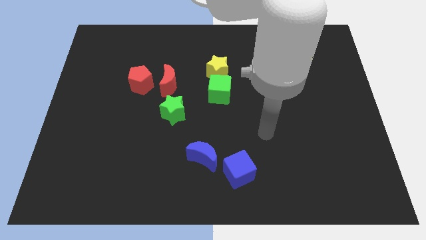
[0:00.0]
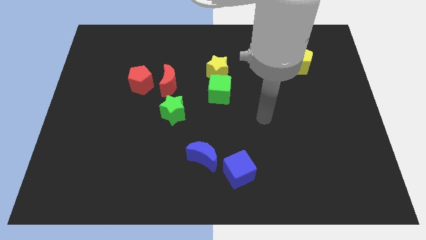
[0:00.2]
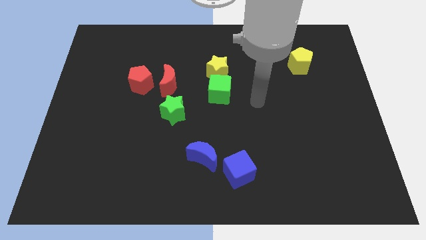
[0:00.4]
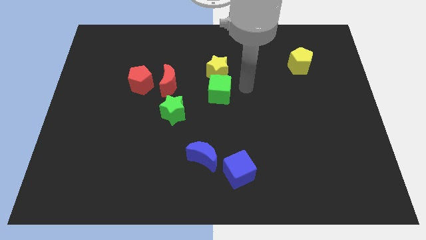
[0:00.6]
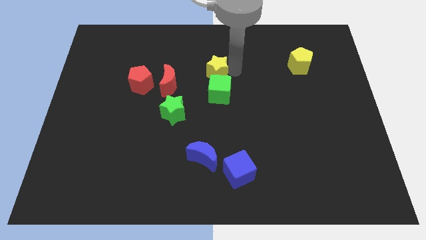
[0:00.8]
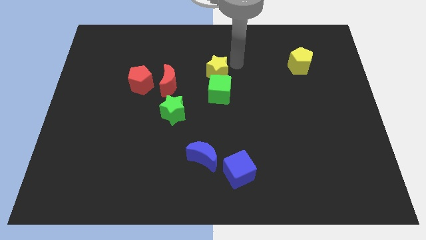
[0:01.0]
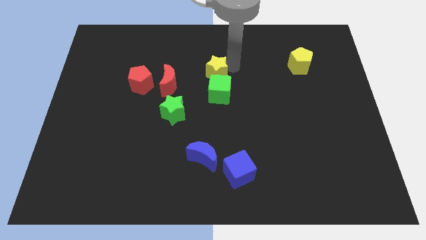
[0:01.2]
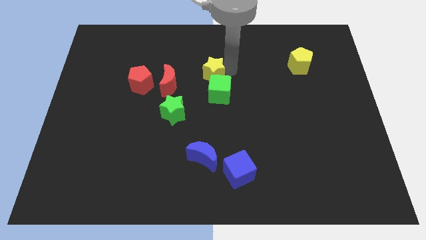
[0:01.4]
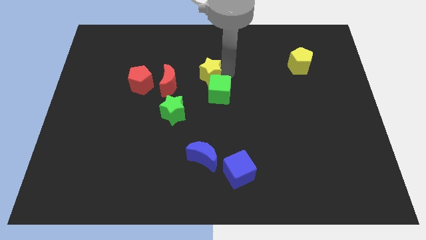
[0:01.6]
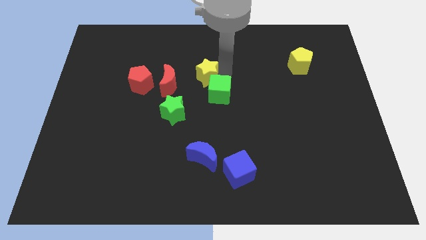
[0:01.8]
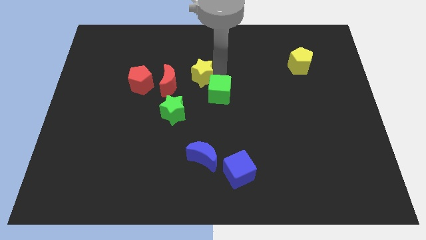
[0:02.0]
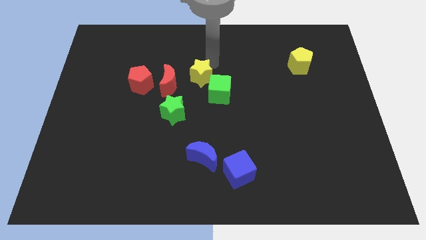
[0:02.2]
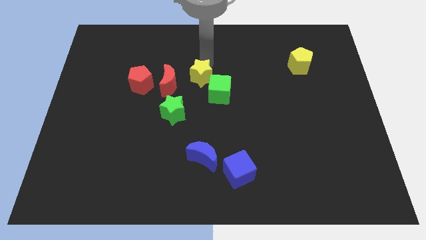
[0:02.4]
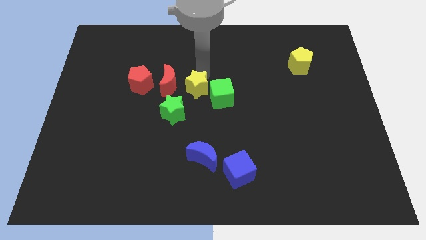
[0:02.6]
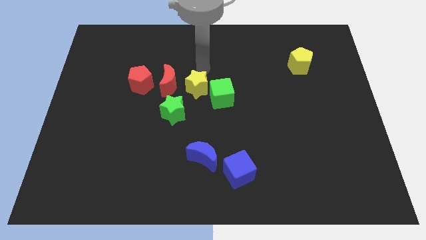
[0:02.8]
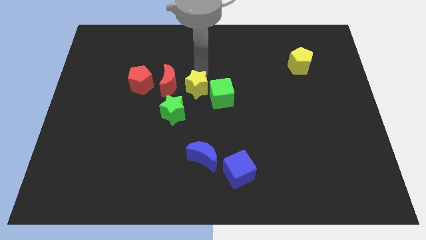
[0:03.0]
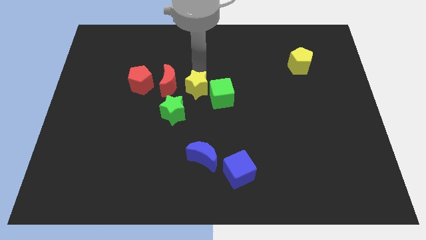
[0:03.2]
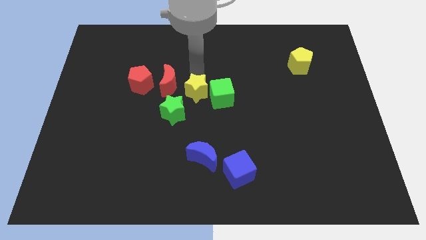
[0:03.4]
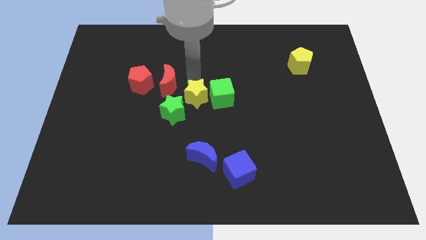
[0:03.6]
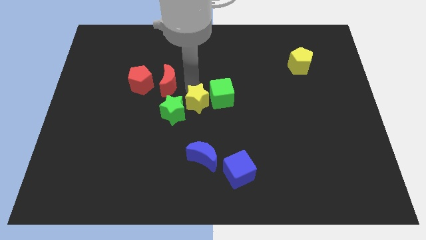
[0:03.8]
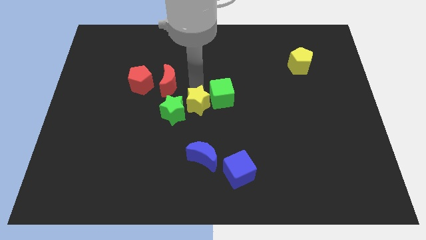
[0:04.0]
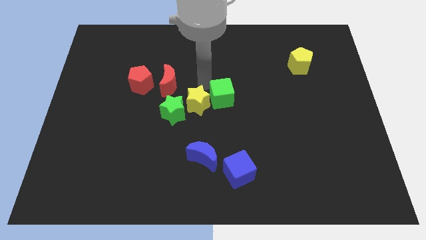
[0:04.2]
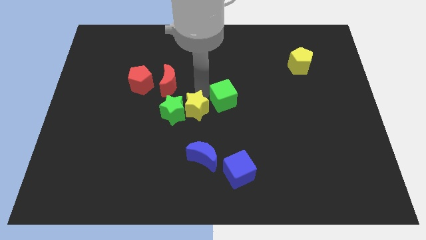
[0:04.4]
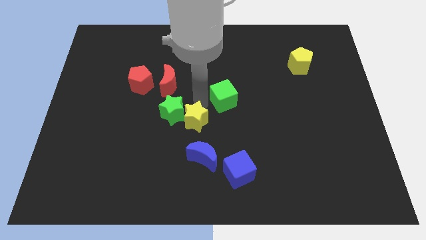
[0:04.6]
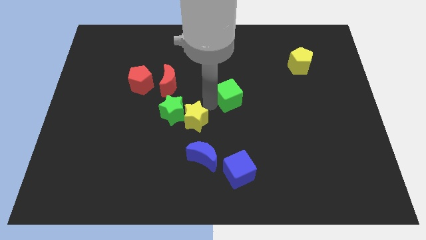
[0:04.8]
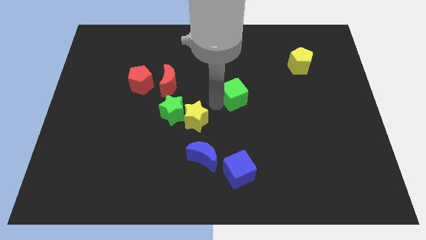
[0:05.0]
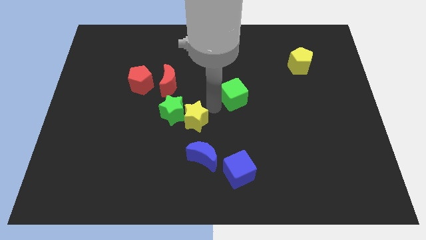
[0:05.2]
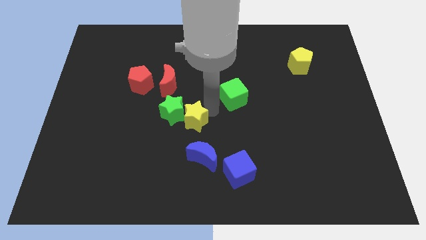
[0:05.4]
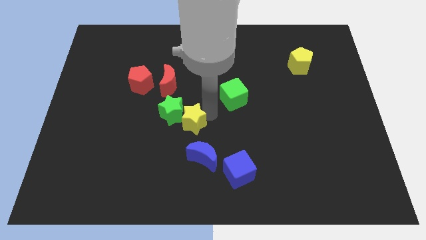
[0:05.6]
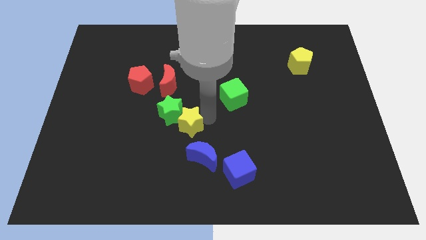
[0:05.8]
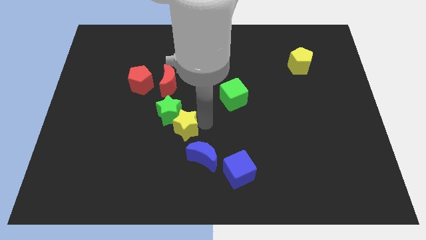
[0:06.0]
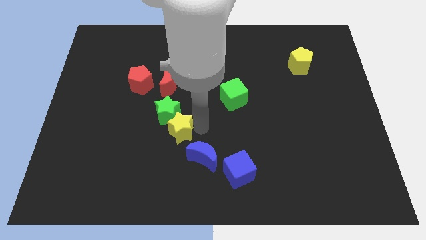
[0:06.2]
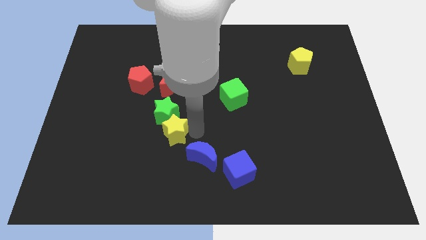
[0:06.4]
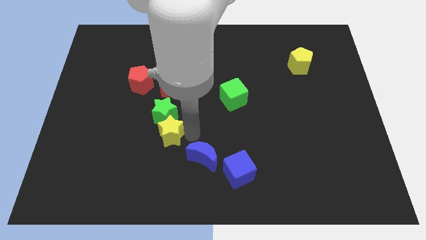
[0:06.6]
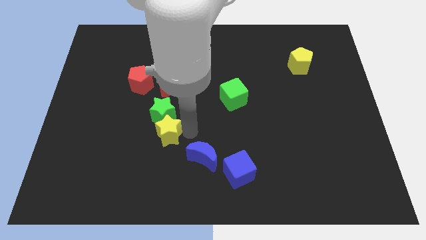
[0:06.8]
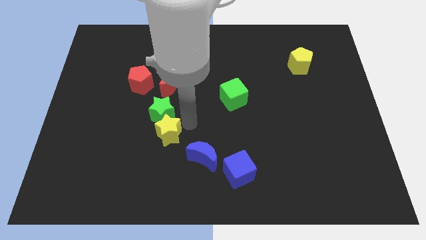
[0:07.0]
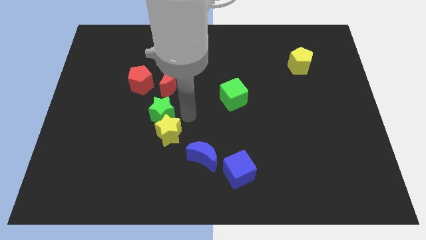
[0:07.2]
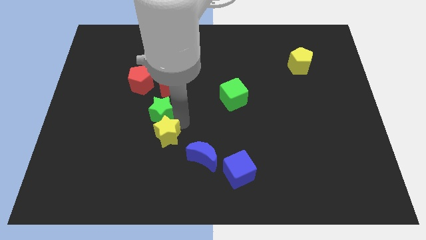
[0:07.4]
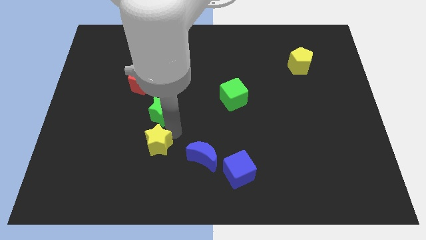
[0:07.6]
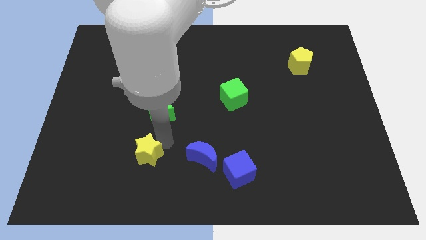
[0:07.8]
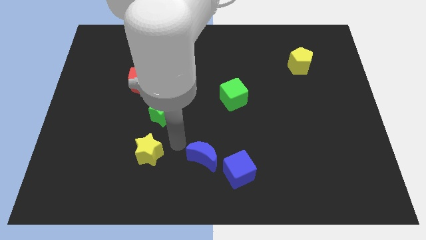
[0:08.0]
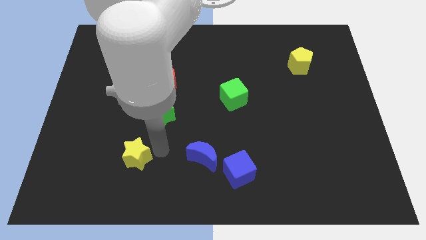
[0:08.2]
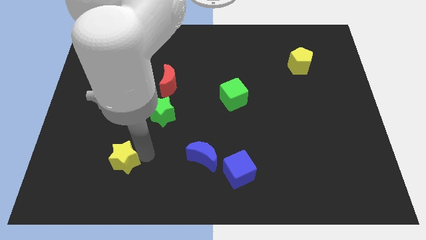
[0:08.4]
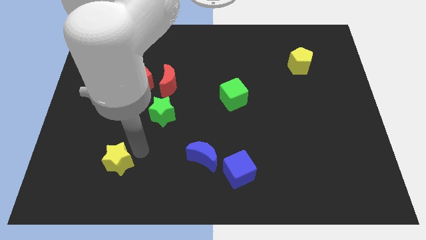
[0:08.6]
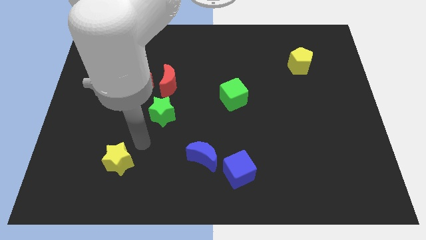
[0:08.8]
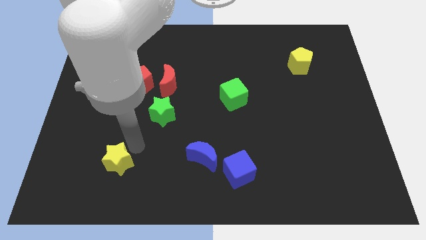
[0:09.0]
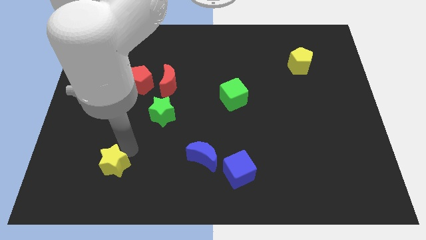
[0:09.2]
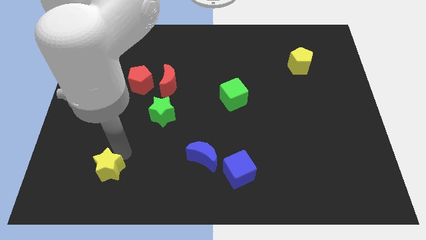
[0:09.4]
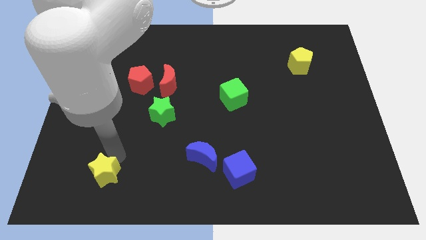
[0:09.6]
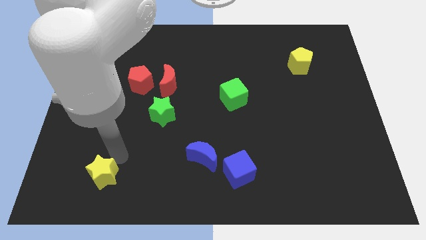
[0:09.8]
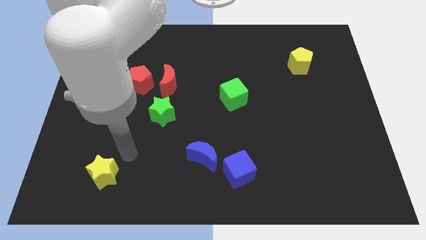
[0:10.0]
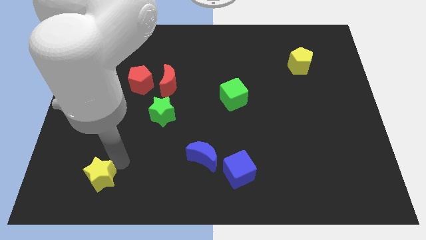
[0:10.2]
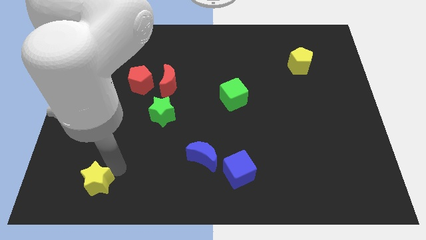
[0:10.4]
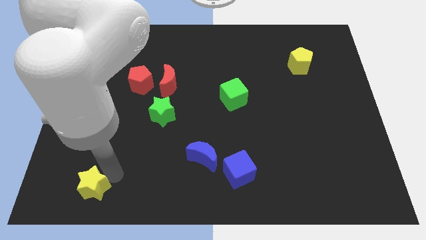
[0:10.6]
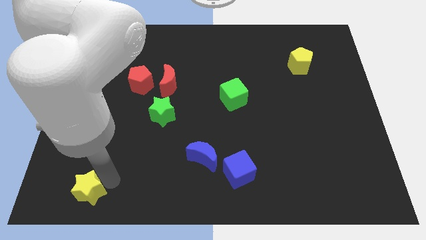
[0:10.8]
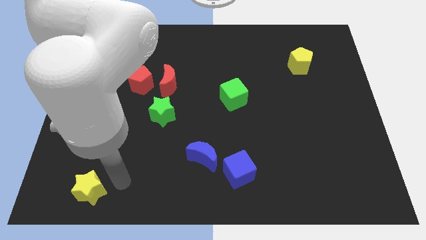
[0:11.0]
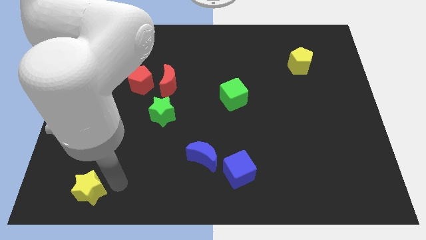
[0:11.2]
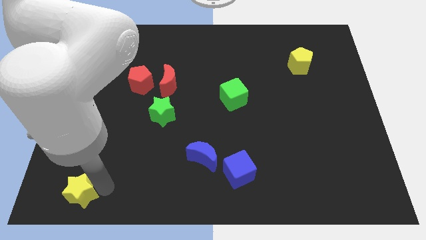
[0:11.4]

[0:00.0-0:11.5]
push the yellow star to the bottom left corner

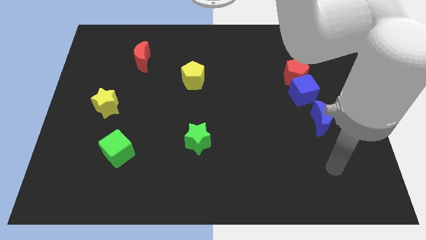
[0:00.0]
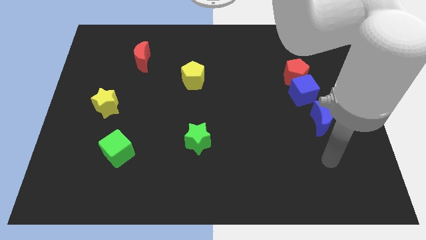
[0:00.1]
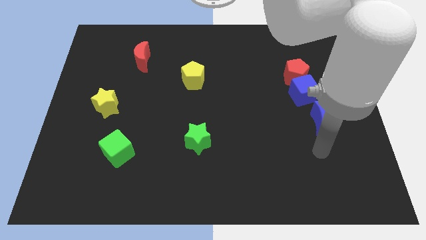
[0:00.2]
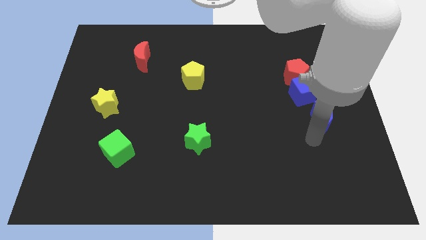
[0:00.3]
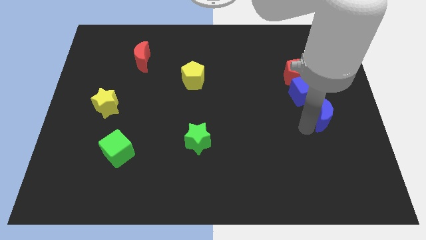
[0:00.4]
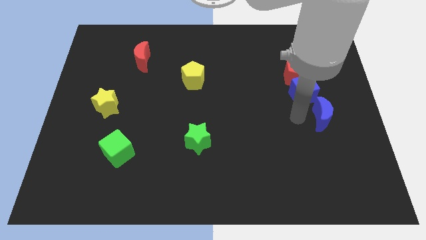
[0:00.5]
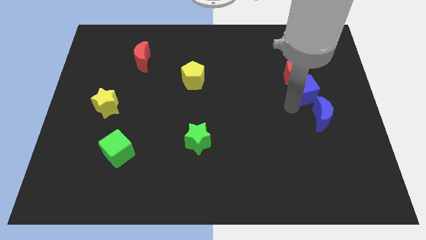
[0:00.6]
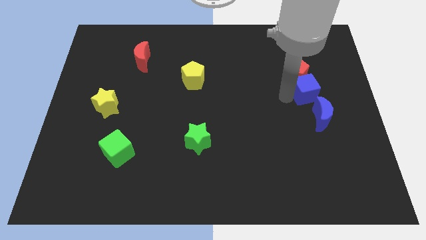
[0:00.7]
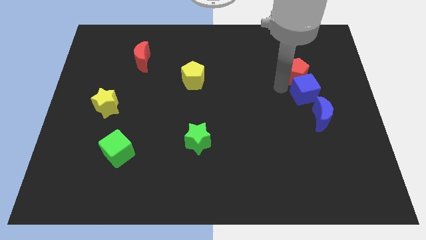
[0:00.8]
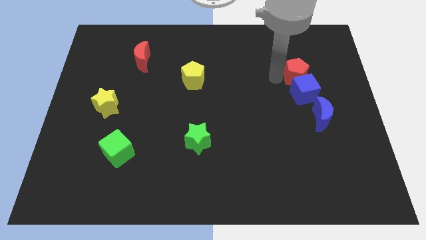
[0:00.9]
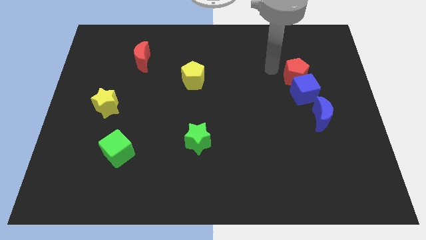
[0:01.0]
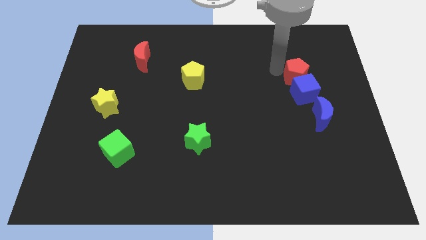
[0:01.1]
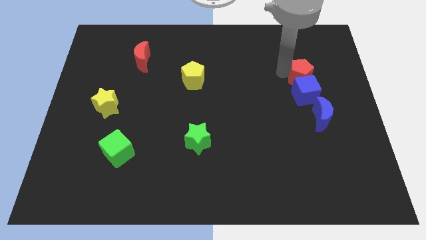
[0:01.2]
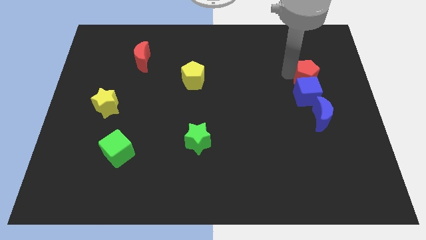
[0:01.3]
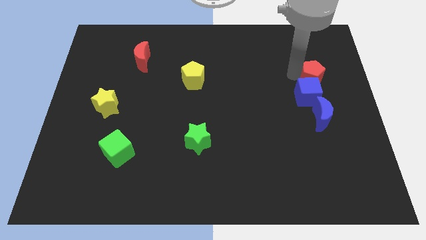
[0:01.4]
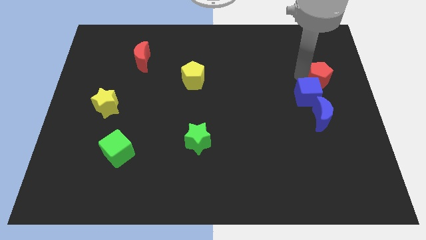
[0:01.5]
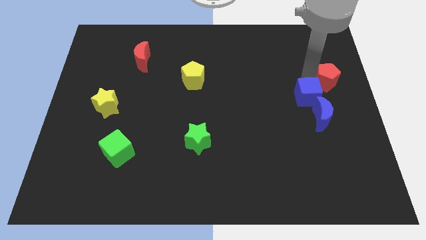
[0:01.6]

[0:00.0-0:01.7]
move the red pentagon to the center right

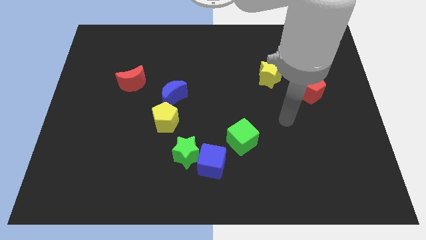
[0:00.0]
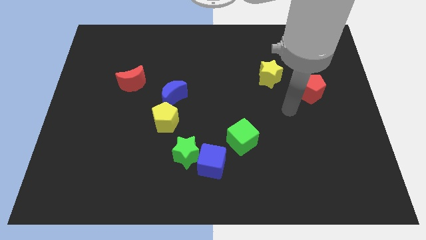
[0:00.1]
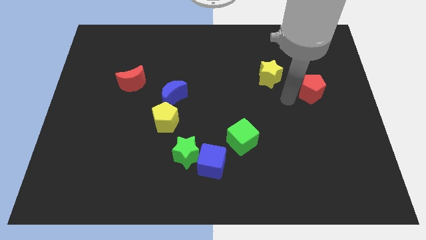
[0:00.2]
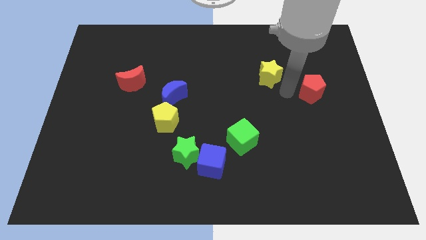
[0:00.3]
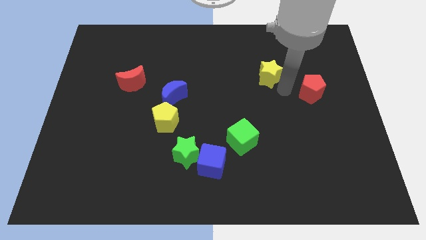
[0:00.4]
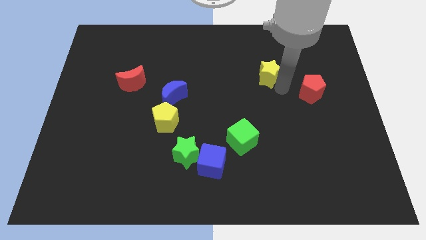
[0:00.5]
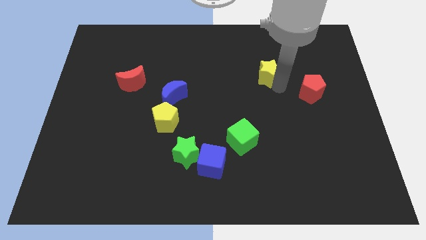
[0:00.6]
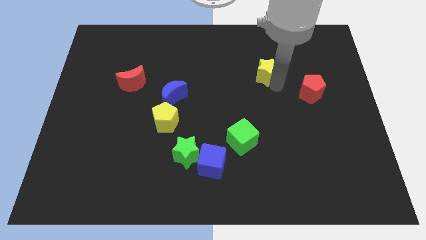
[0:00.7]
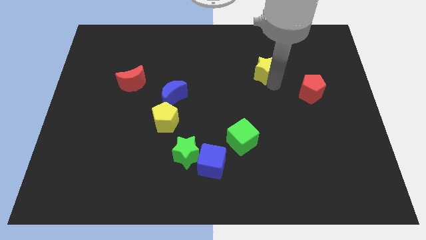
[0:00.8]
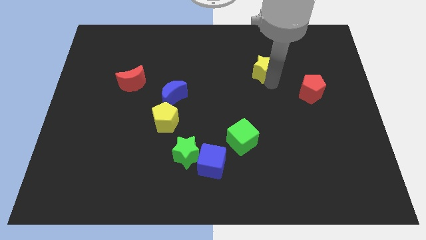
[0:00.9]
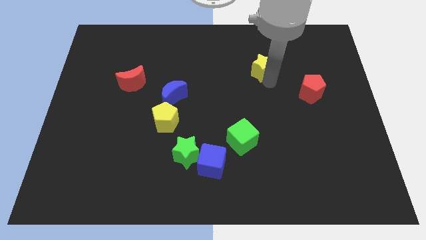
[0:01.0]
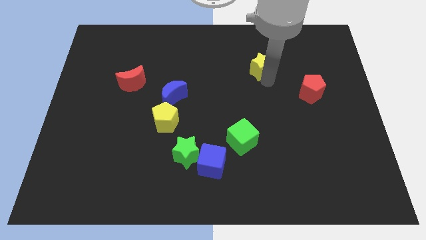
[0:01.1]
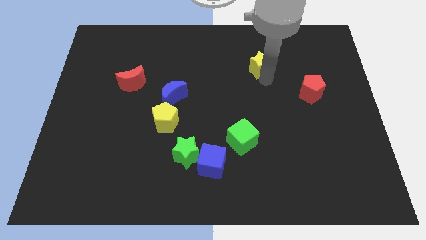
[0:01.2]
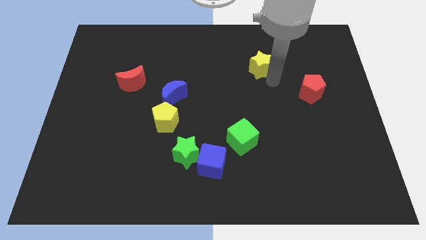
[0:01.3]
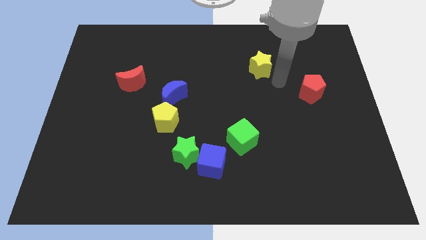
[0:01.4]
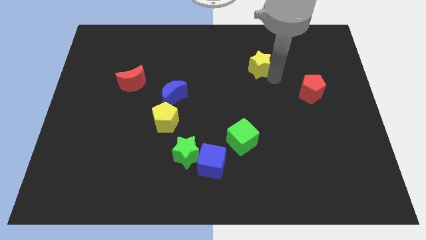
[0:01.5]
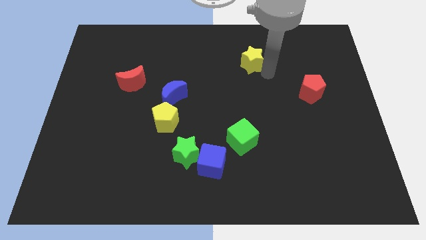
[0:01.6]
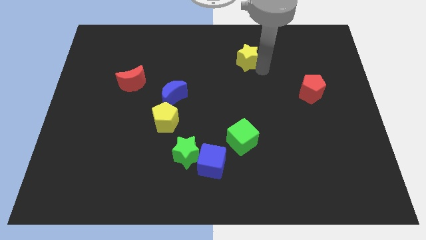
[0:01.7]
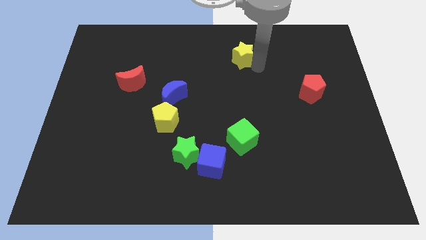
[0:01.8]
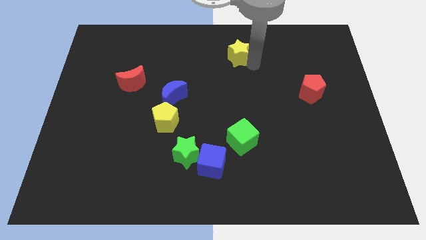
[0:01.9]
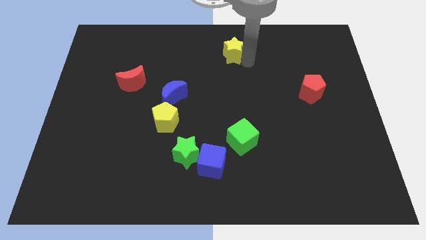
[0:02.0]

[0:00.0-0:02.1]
move the yellow star to the towards your base
